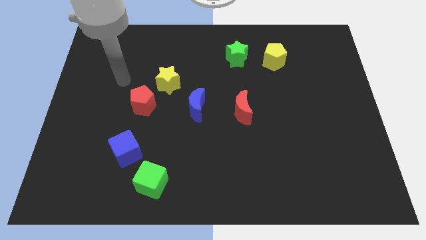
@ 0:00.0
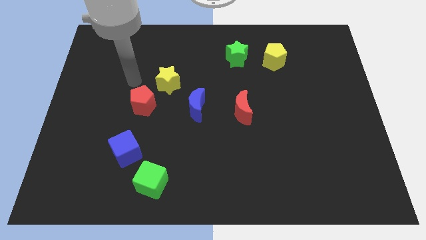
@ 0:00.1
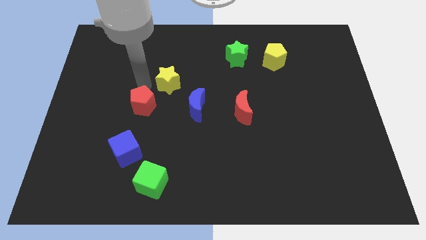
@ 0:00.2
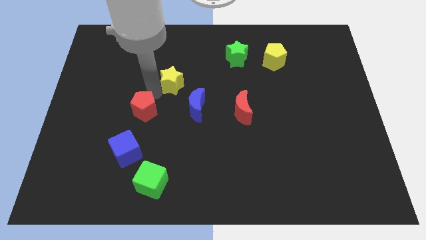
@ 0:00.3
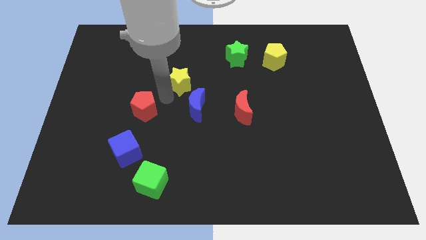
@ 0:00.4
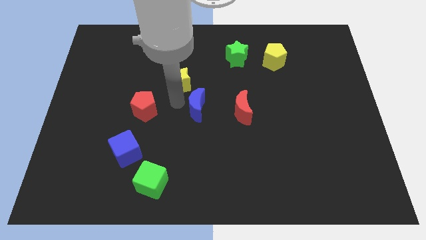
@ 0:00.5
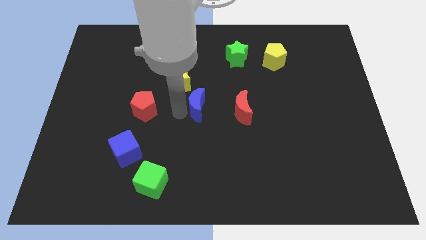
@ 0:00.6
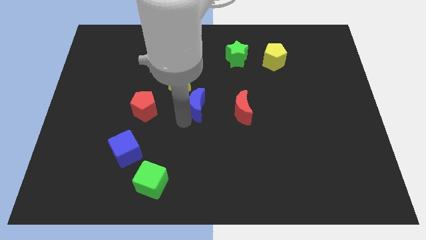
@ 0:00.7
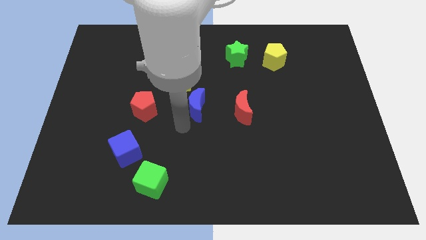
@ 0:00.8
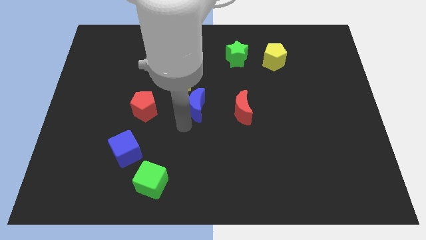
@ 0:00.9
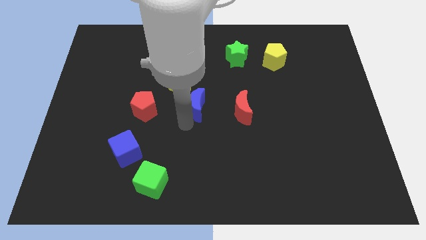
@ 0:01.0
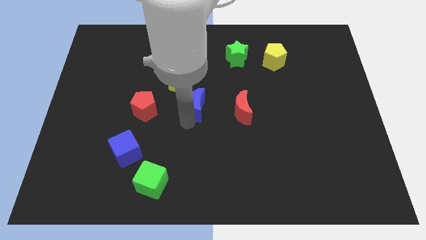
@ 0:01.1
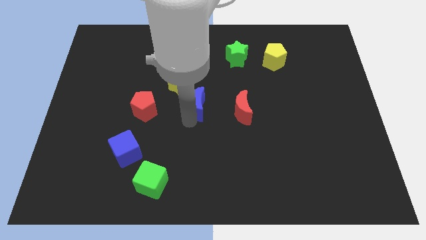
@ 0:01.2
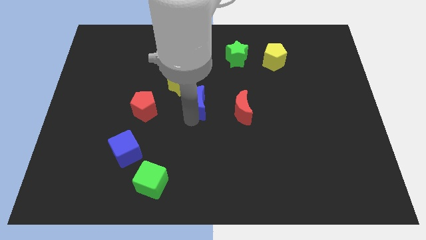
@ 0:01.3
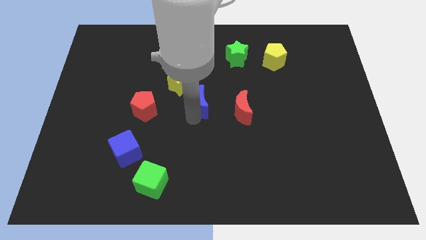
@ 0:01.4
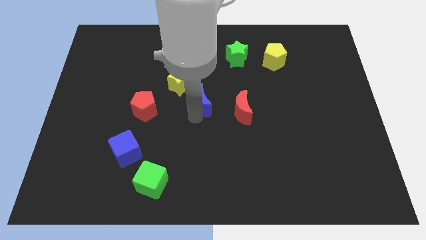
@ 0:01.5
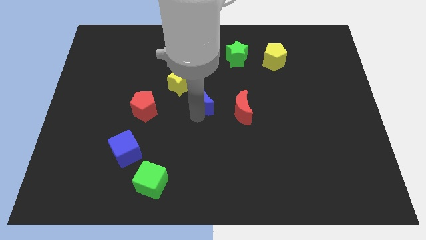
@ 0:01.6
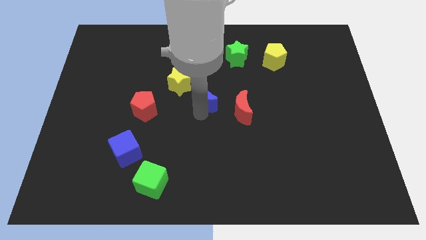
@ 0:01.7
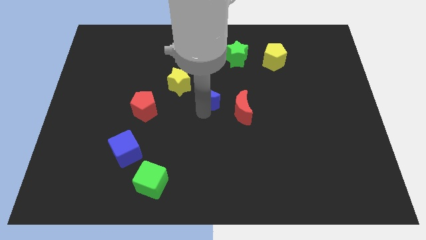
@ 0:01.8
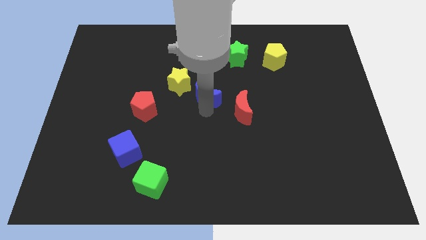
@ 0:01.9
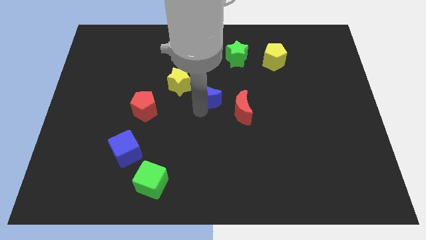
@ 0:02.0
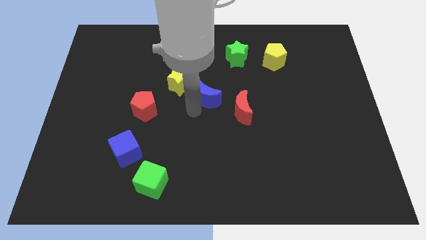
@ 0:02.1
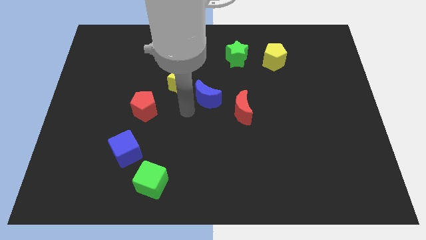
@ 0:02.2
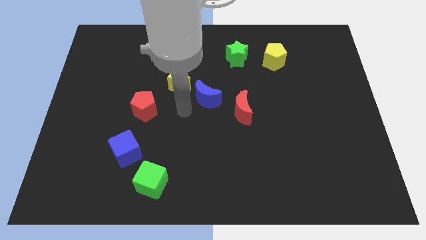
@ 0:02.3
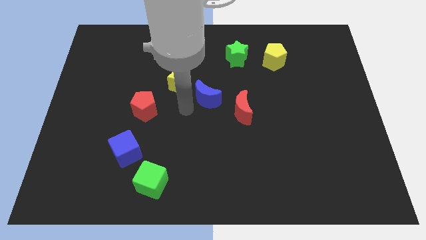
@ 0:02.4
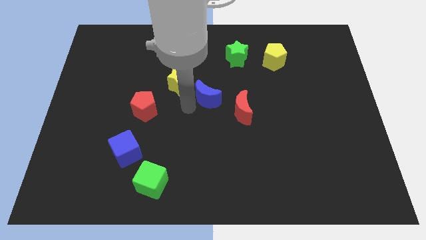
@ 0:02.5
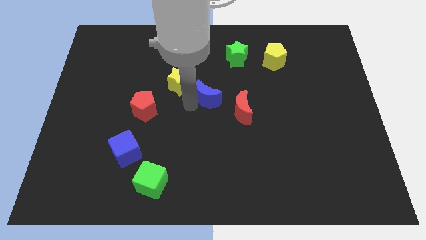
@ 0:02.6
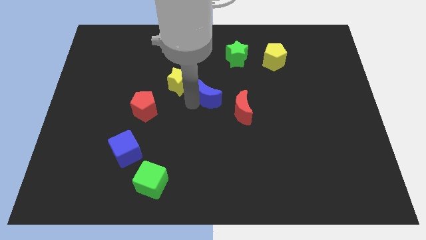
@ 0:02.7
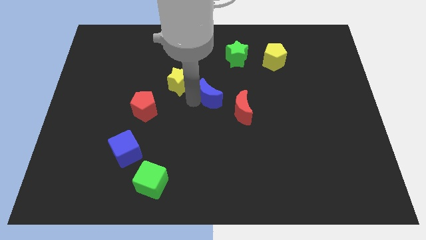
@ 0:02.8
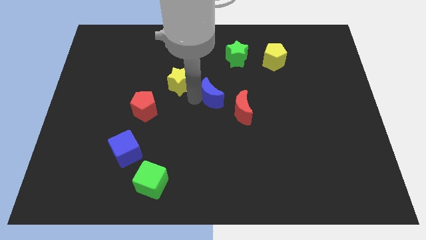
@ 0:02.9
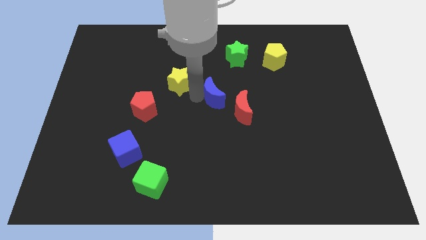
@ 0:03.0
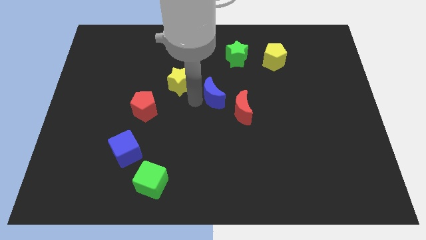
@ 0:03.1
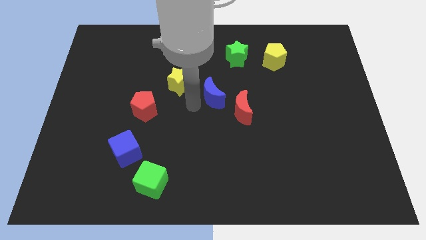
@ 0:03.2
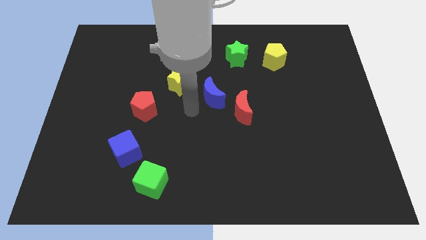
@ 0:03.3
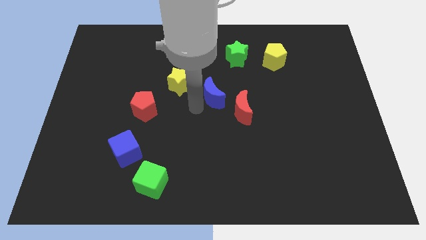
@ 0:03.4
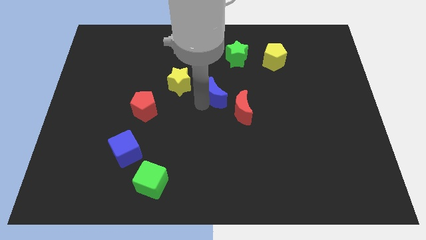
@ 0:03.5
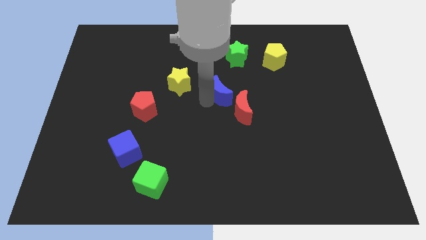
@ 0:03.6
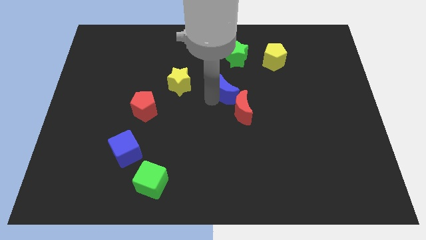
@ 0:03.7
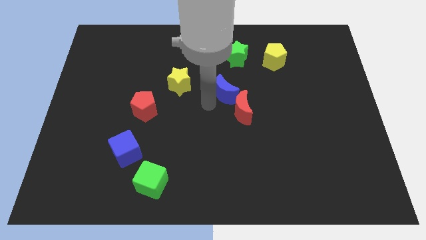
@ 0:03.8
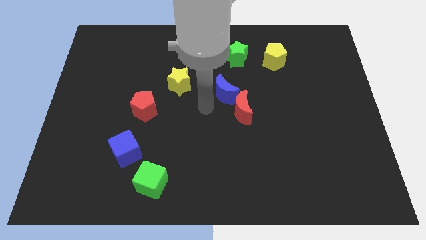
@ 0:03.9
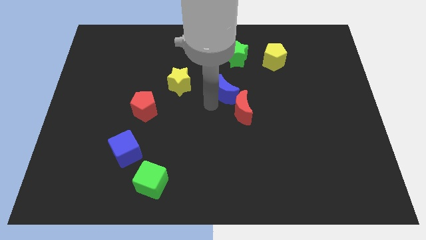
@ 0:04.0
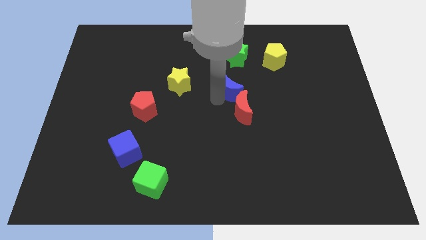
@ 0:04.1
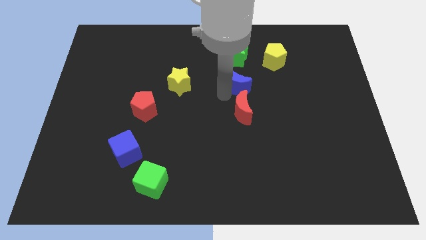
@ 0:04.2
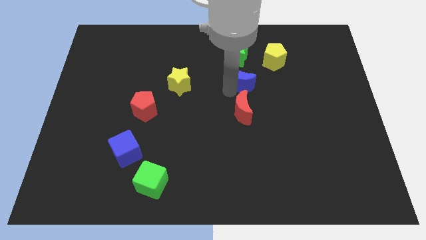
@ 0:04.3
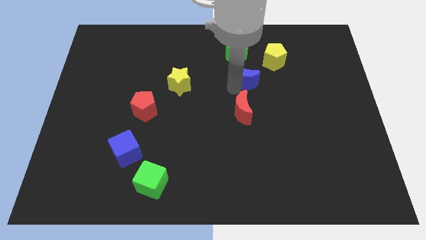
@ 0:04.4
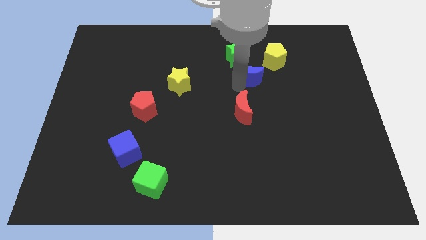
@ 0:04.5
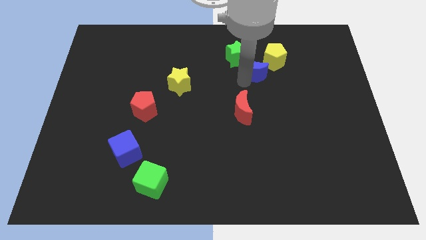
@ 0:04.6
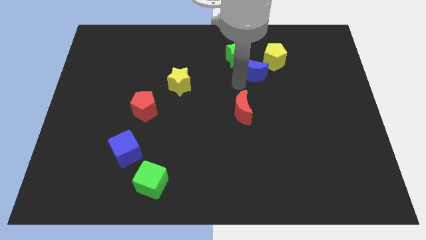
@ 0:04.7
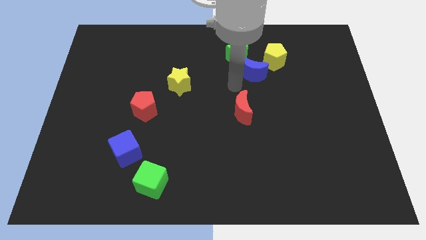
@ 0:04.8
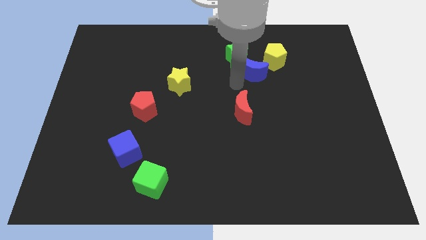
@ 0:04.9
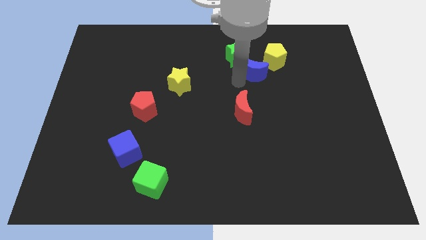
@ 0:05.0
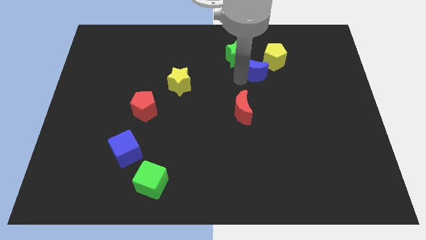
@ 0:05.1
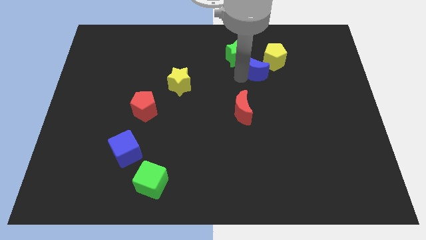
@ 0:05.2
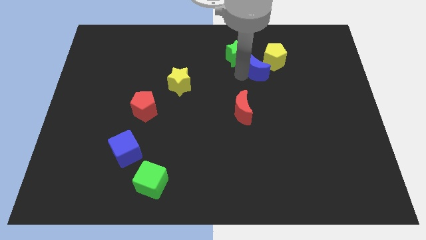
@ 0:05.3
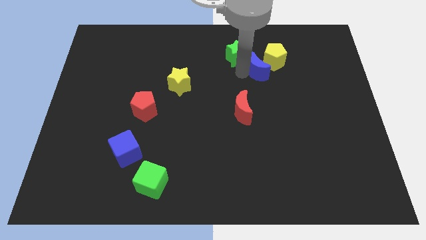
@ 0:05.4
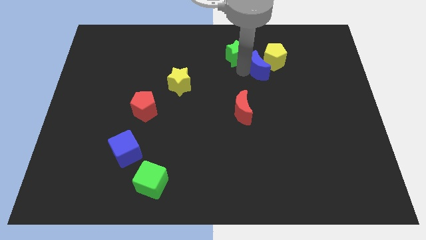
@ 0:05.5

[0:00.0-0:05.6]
put the blue moon close to the yellow pentagon

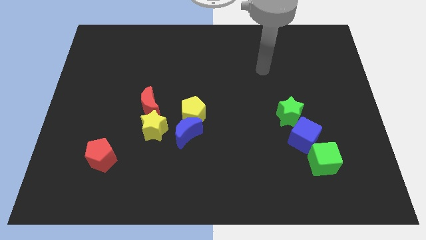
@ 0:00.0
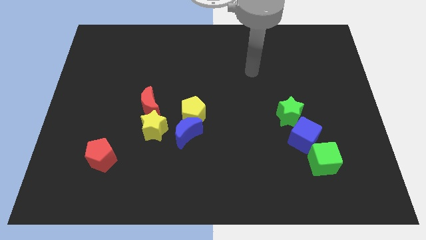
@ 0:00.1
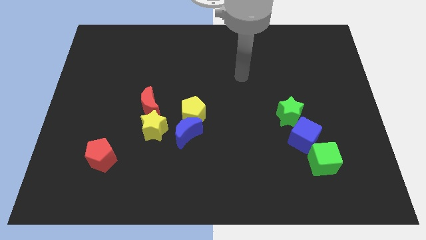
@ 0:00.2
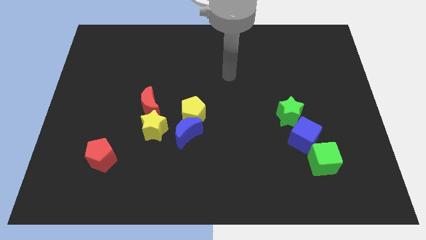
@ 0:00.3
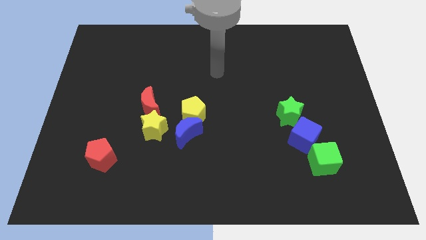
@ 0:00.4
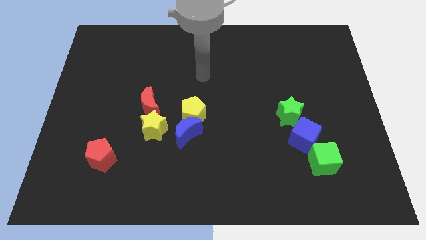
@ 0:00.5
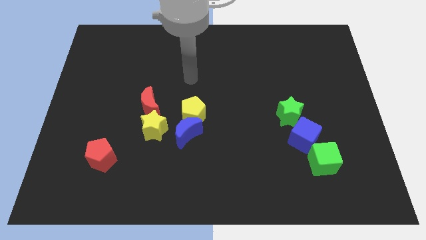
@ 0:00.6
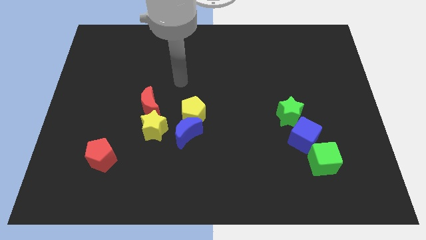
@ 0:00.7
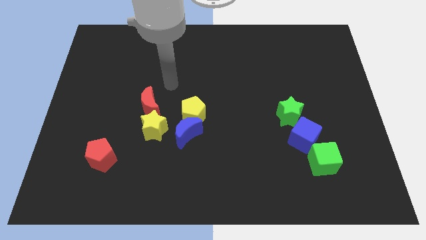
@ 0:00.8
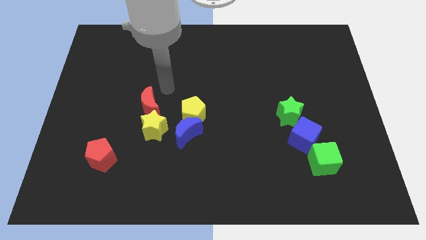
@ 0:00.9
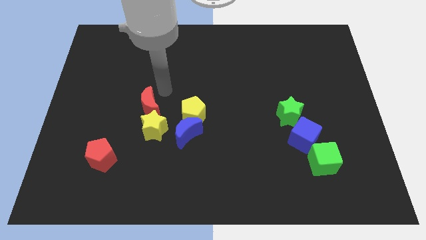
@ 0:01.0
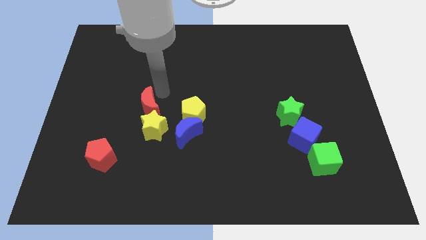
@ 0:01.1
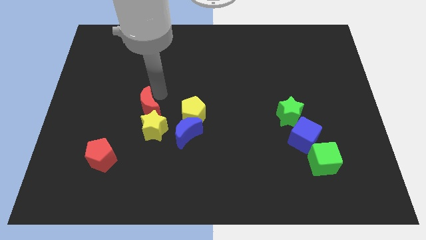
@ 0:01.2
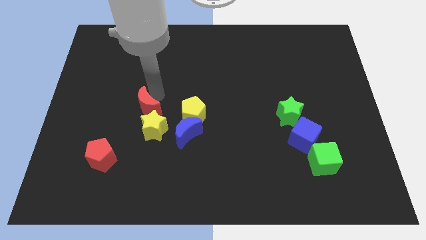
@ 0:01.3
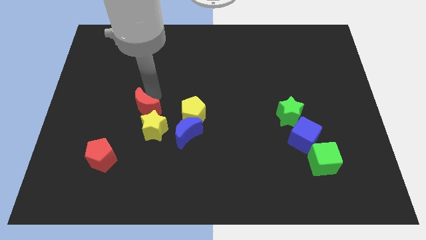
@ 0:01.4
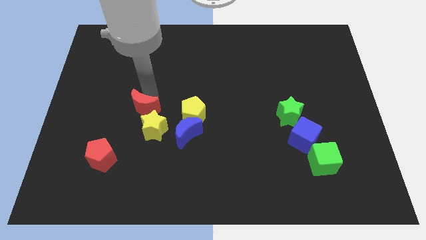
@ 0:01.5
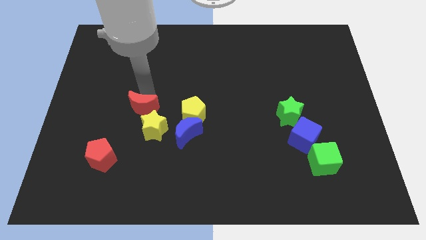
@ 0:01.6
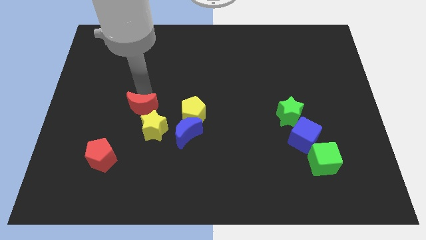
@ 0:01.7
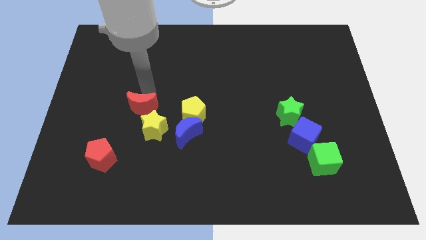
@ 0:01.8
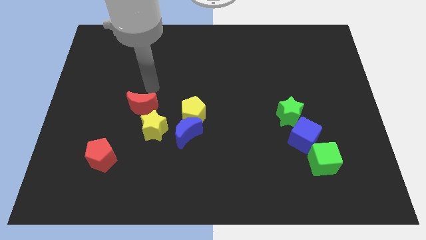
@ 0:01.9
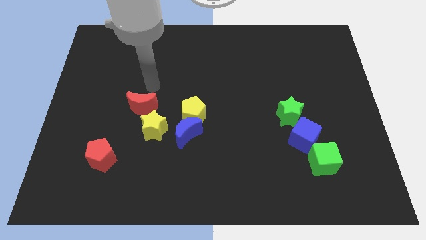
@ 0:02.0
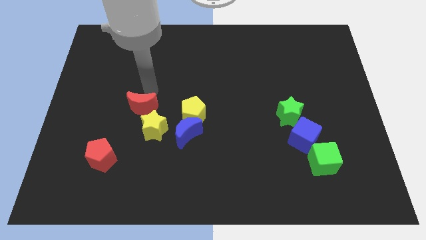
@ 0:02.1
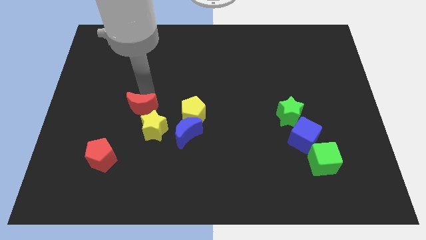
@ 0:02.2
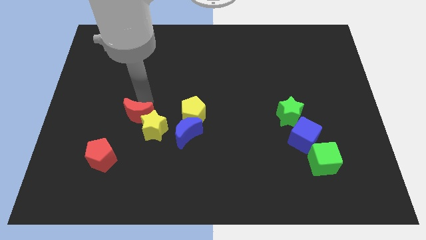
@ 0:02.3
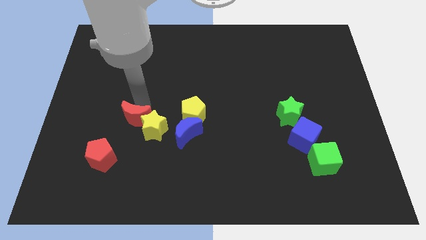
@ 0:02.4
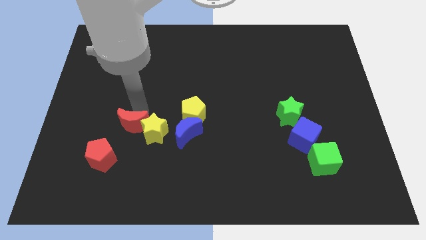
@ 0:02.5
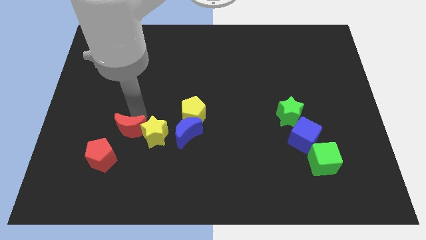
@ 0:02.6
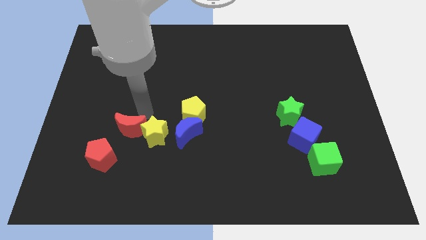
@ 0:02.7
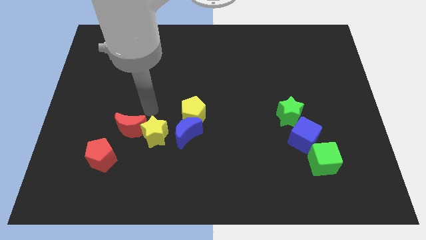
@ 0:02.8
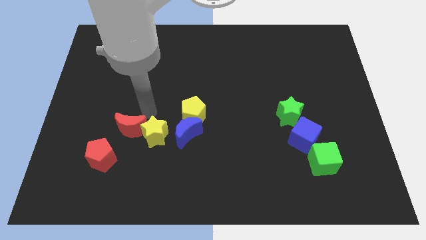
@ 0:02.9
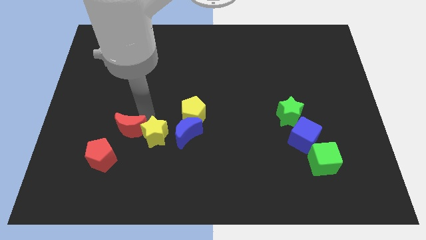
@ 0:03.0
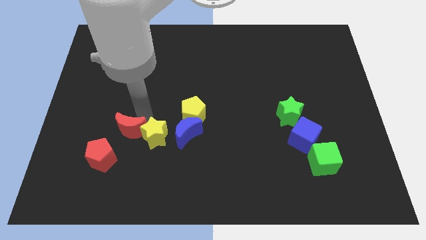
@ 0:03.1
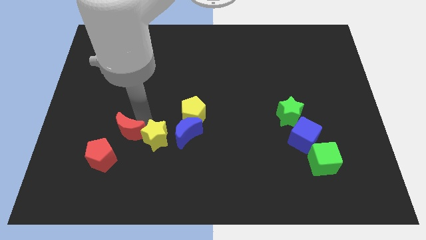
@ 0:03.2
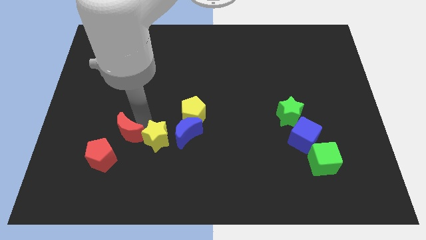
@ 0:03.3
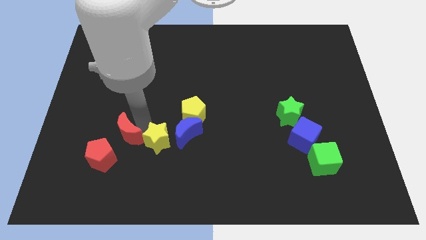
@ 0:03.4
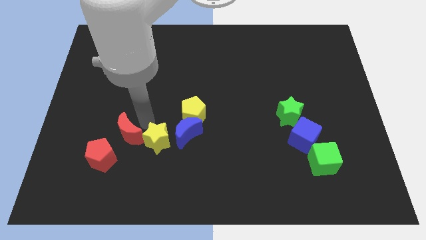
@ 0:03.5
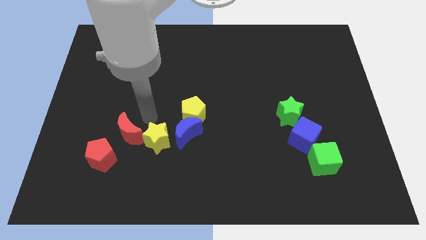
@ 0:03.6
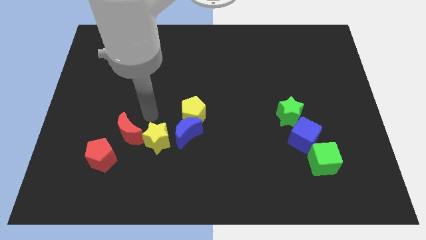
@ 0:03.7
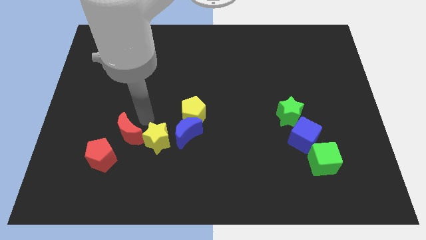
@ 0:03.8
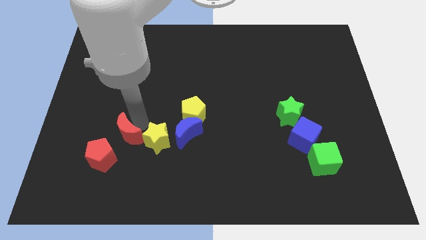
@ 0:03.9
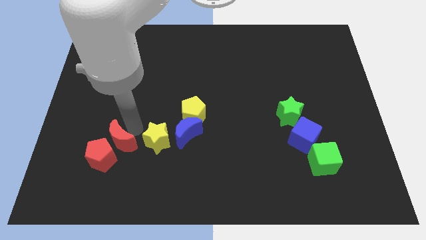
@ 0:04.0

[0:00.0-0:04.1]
slide the red moon next to the red pentagon
